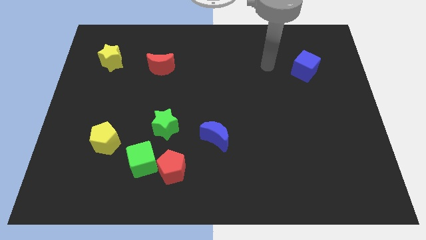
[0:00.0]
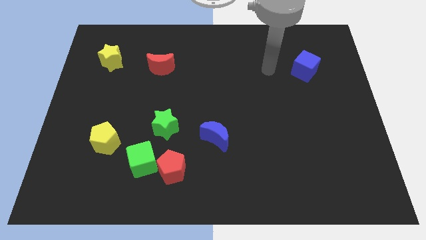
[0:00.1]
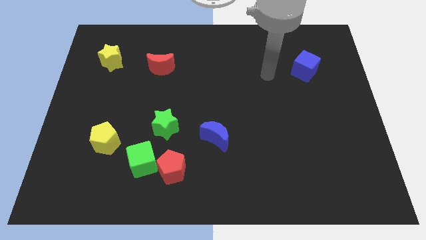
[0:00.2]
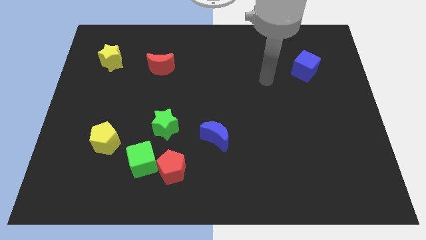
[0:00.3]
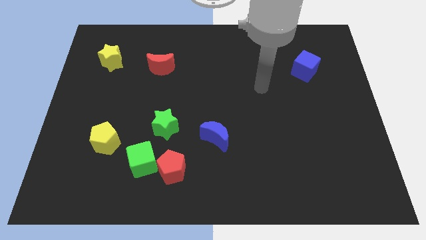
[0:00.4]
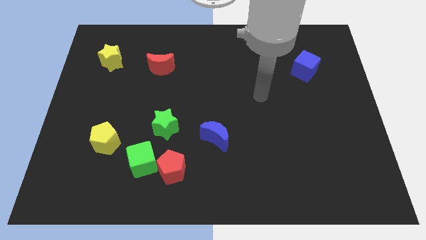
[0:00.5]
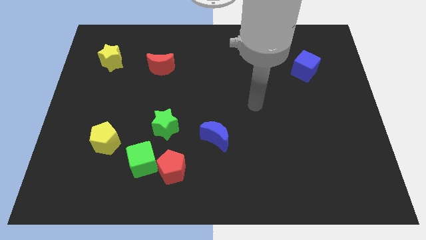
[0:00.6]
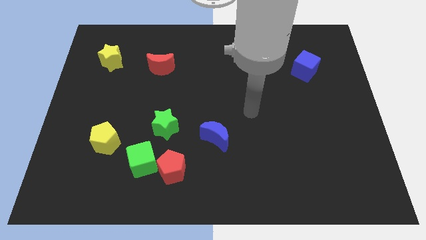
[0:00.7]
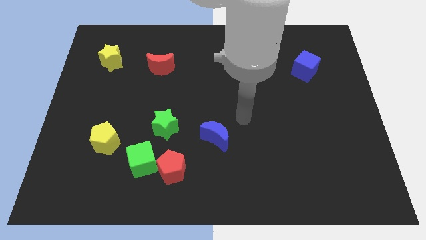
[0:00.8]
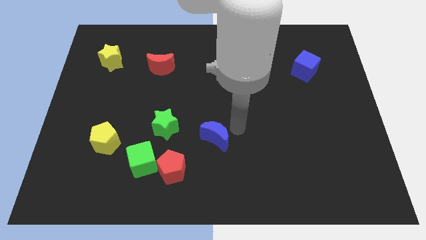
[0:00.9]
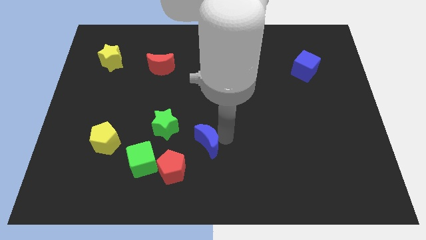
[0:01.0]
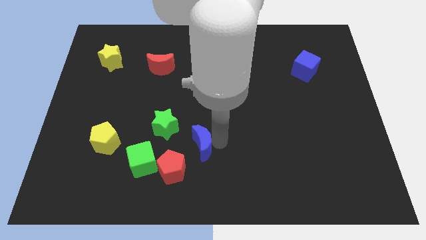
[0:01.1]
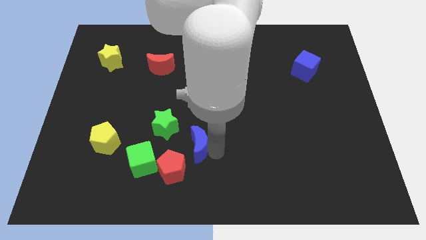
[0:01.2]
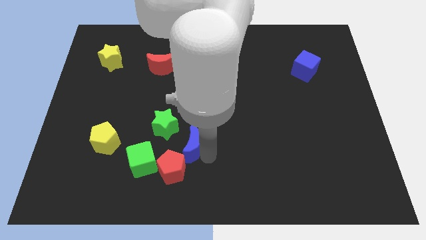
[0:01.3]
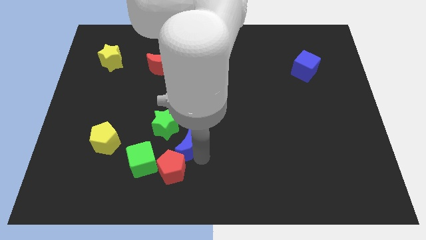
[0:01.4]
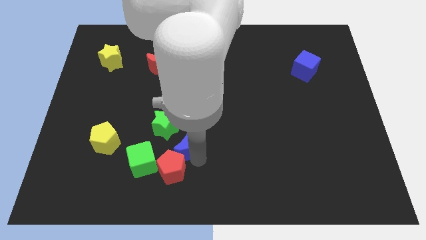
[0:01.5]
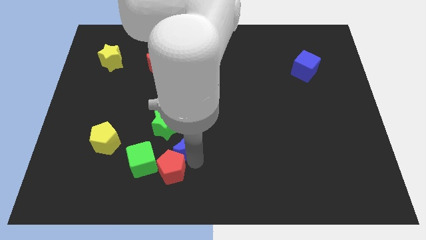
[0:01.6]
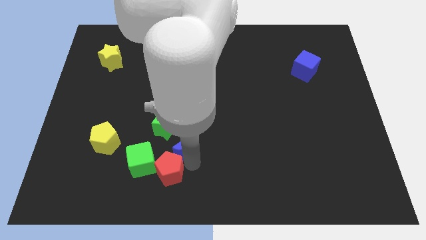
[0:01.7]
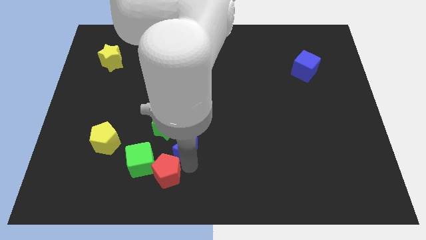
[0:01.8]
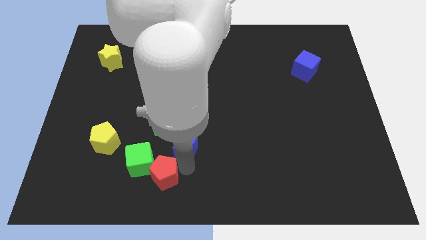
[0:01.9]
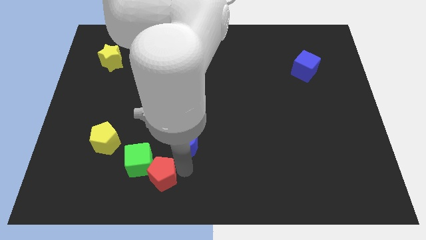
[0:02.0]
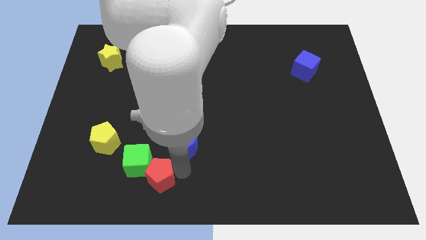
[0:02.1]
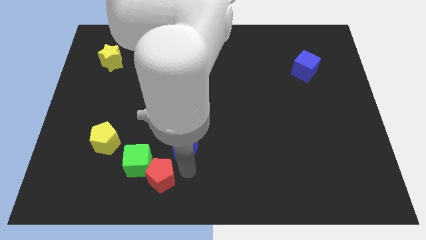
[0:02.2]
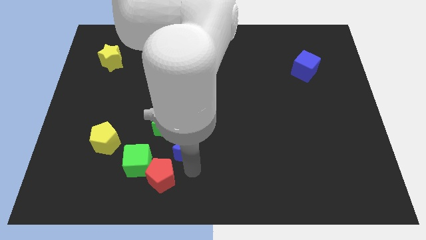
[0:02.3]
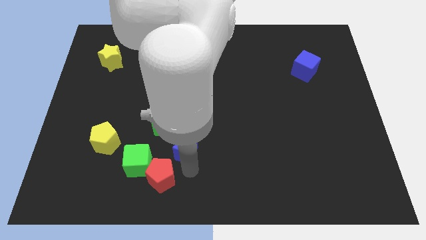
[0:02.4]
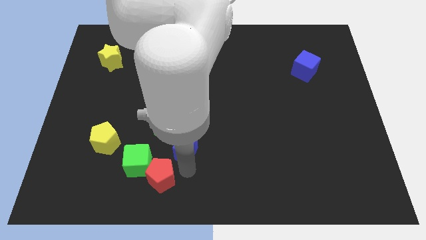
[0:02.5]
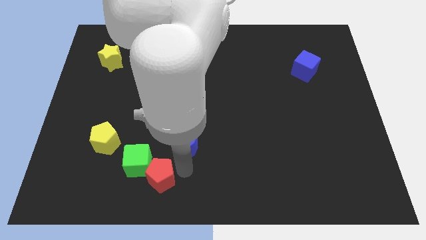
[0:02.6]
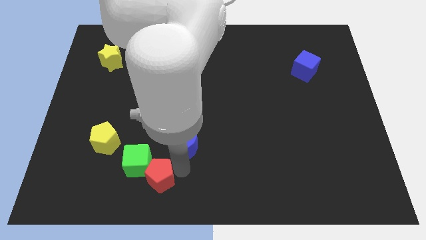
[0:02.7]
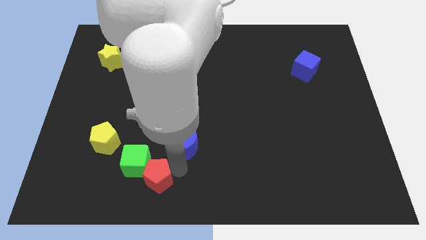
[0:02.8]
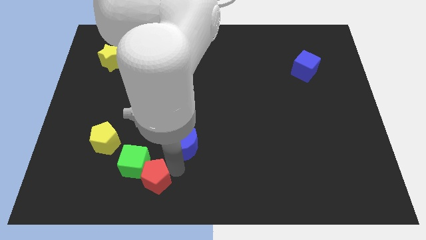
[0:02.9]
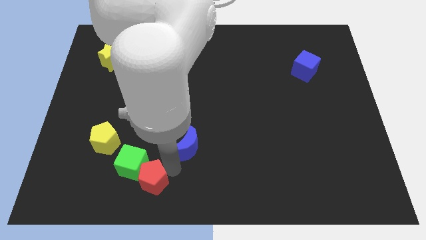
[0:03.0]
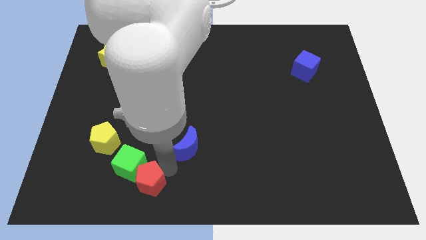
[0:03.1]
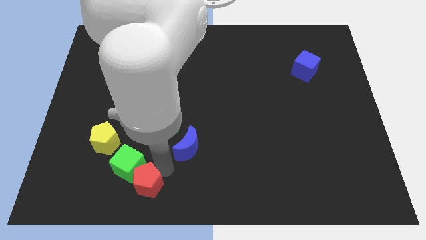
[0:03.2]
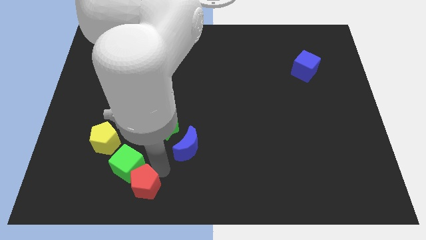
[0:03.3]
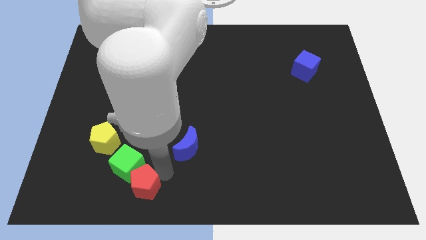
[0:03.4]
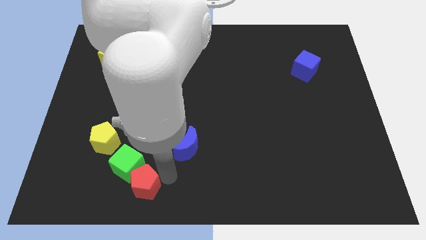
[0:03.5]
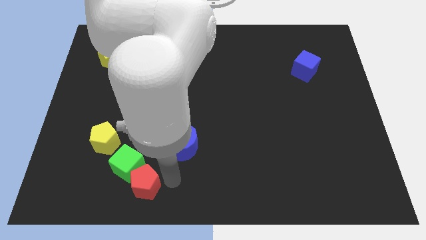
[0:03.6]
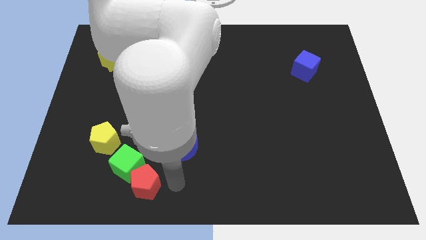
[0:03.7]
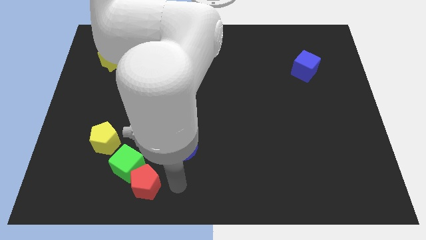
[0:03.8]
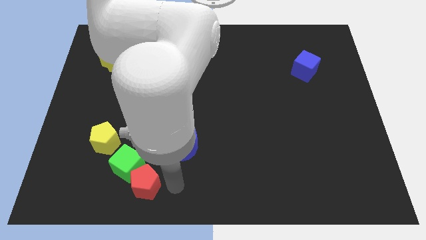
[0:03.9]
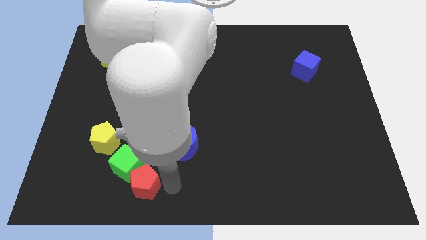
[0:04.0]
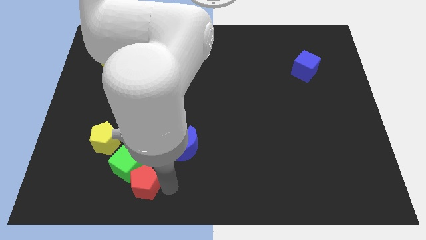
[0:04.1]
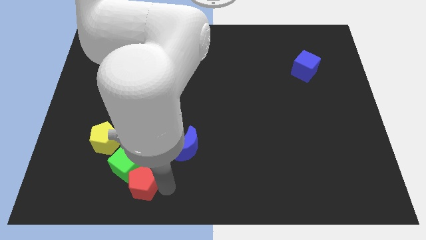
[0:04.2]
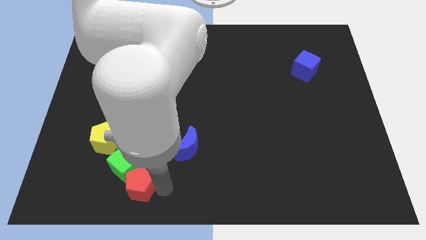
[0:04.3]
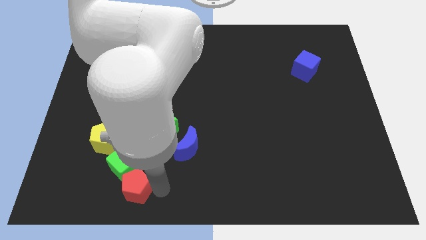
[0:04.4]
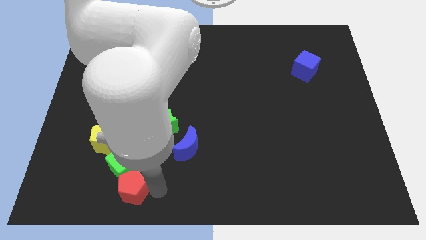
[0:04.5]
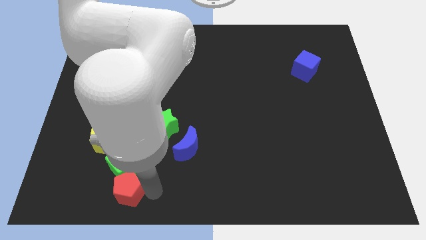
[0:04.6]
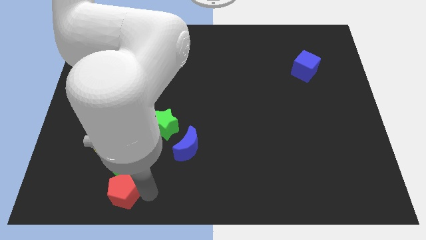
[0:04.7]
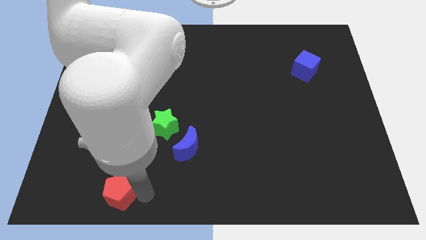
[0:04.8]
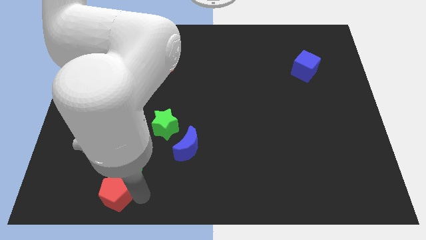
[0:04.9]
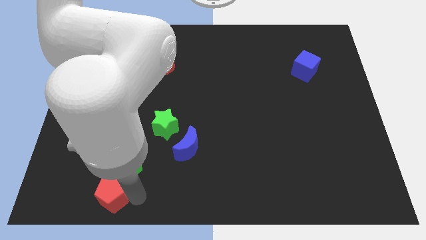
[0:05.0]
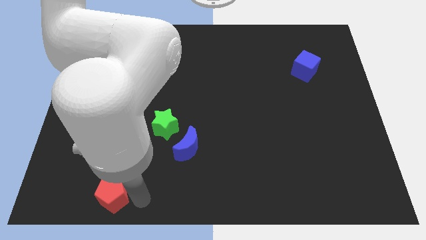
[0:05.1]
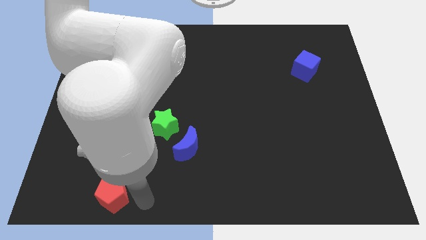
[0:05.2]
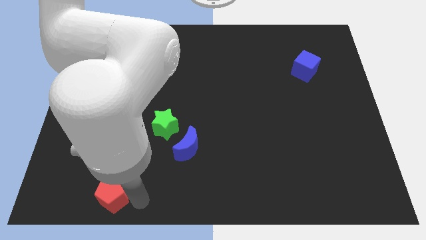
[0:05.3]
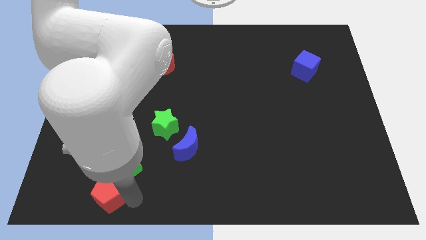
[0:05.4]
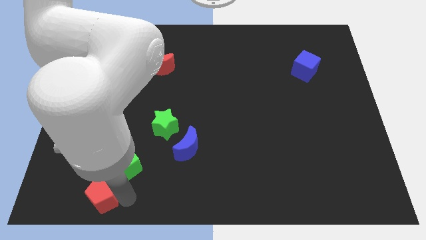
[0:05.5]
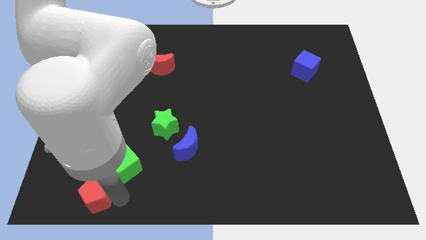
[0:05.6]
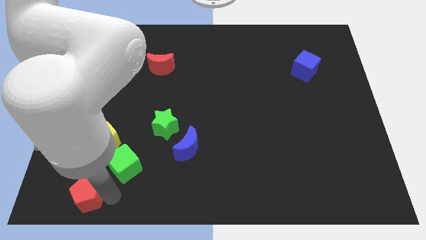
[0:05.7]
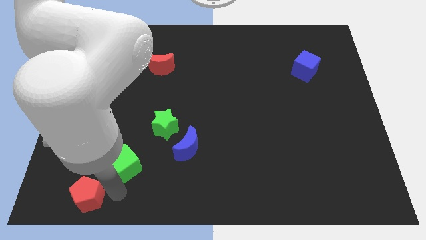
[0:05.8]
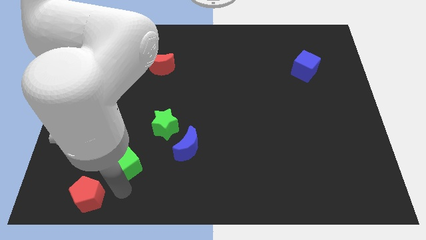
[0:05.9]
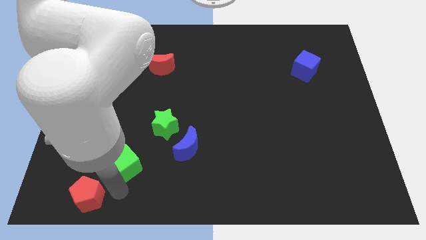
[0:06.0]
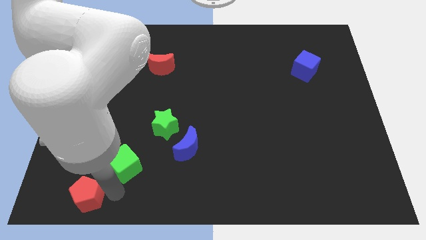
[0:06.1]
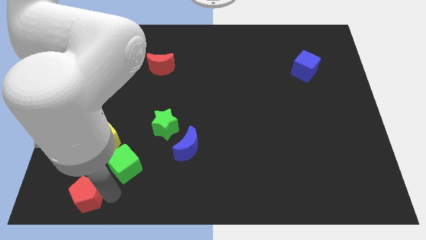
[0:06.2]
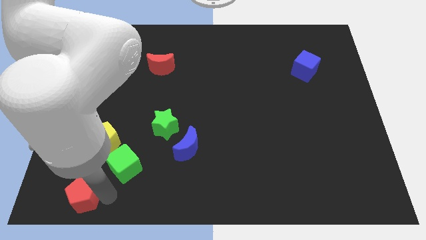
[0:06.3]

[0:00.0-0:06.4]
move the red pentagon to the bottom left of the board

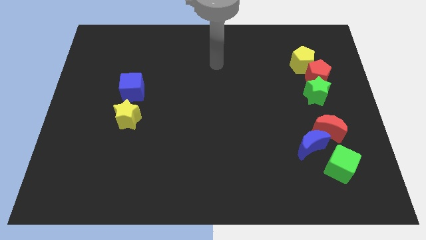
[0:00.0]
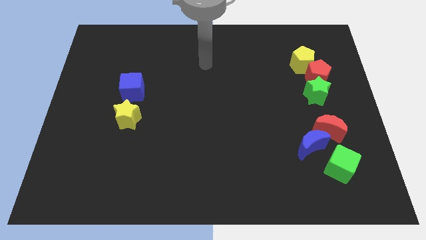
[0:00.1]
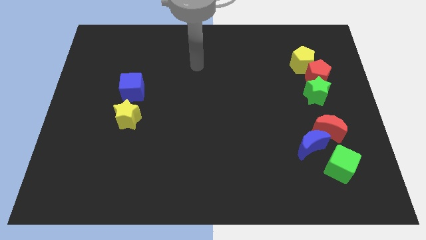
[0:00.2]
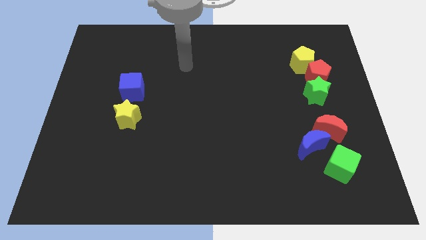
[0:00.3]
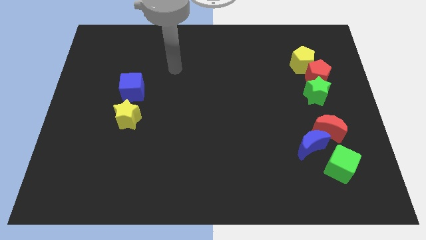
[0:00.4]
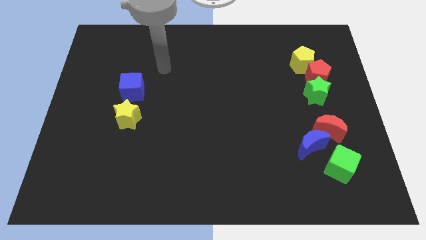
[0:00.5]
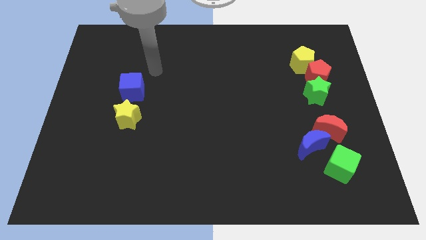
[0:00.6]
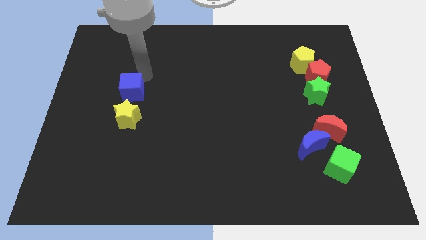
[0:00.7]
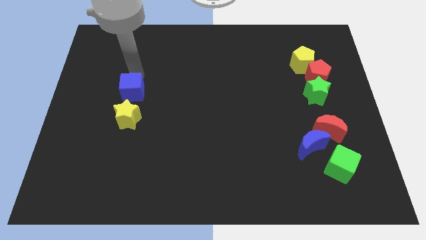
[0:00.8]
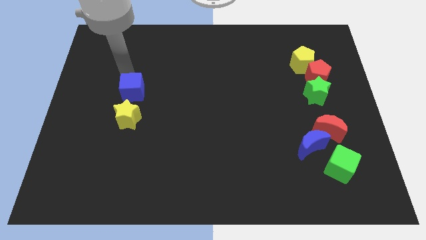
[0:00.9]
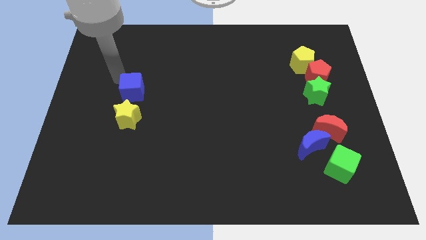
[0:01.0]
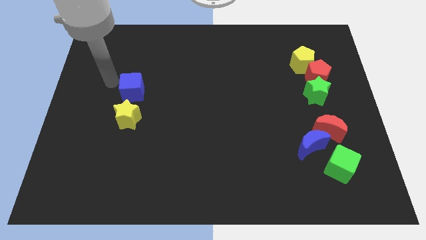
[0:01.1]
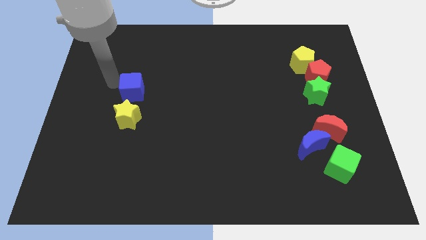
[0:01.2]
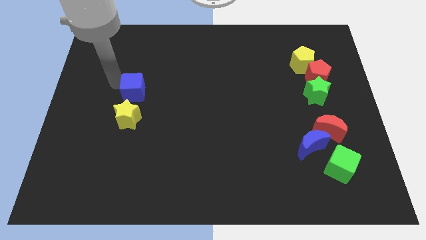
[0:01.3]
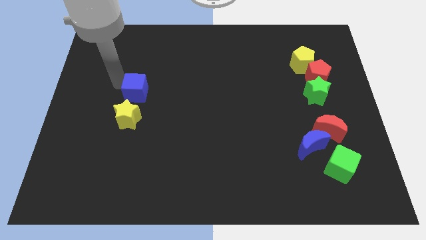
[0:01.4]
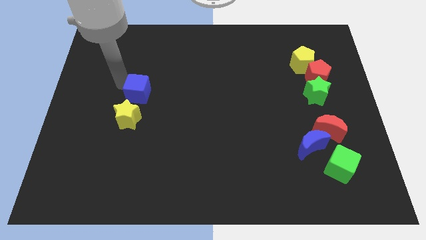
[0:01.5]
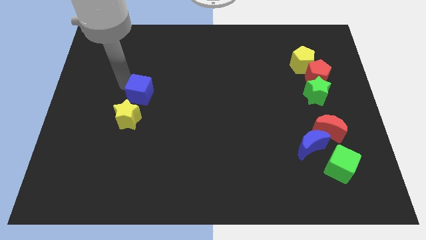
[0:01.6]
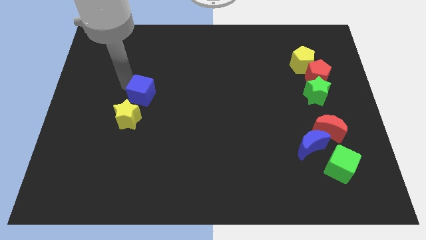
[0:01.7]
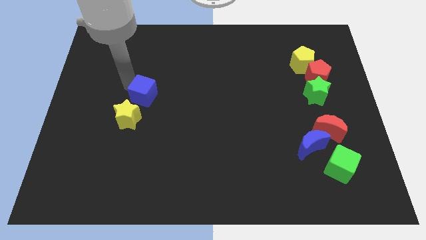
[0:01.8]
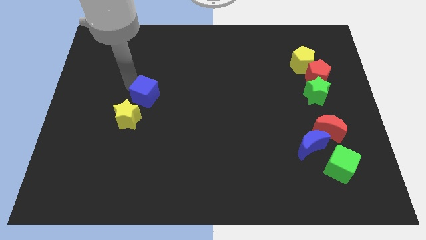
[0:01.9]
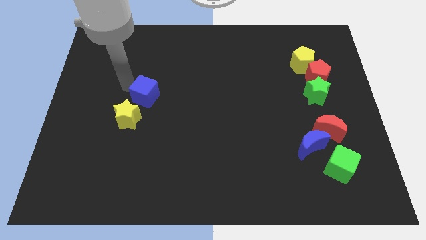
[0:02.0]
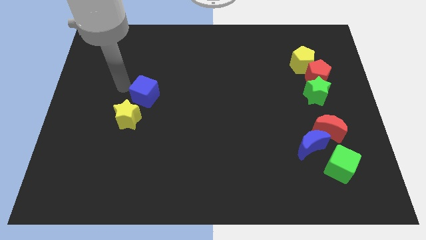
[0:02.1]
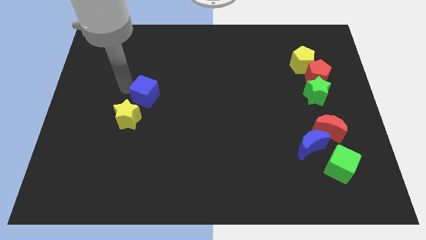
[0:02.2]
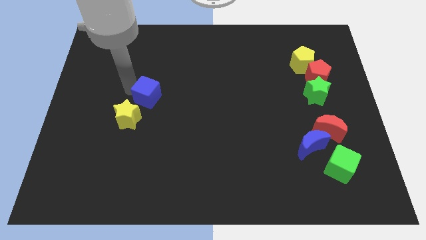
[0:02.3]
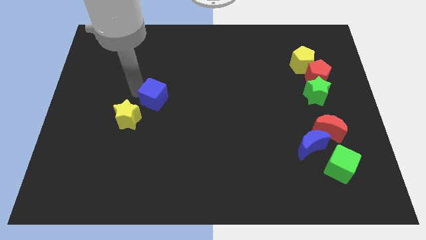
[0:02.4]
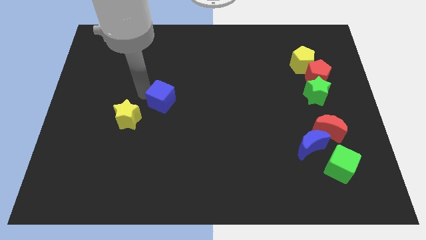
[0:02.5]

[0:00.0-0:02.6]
slide the blue cube to the center of the board
